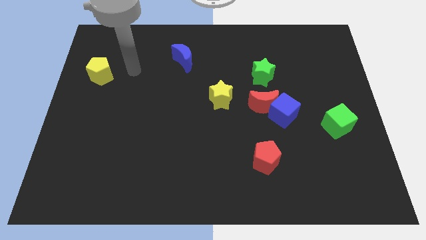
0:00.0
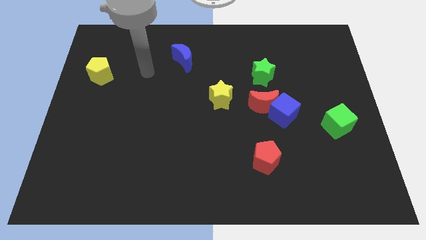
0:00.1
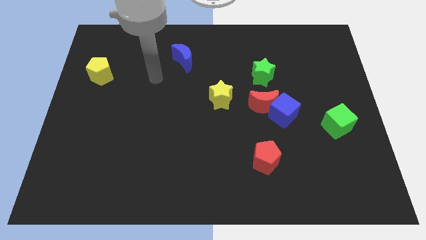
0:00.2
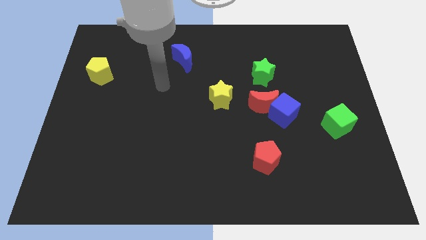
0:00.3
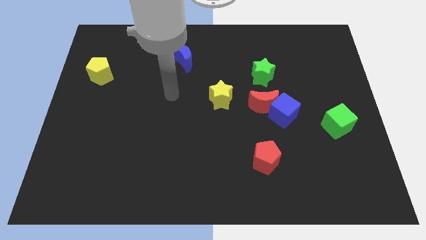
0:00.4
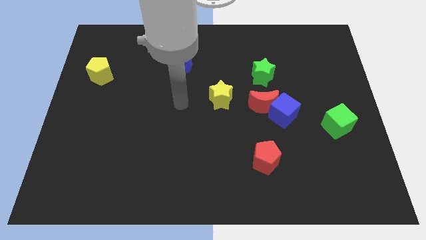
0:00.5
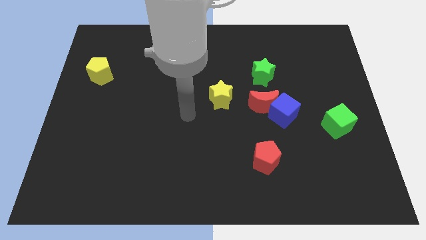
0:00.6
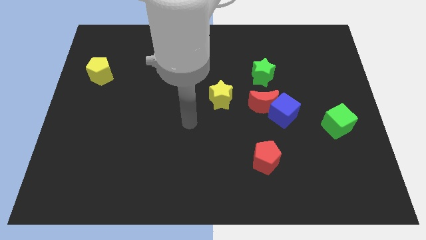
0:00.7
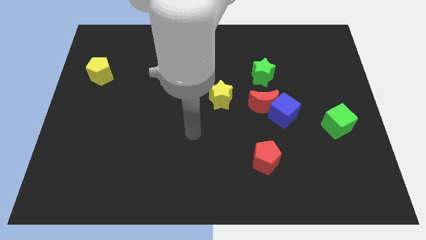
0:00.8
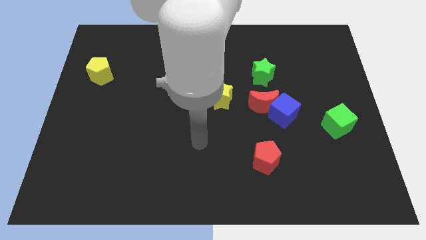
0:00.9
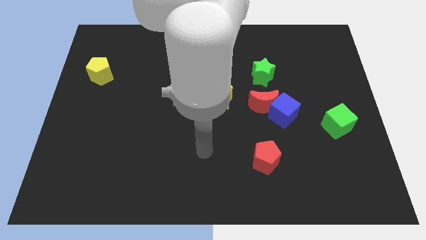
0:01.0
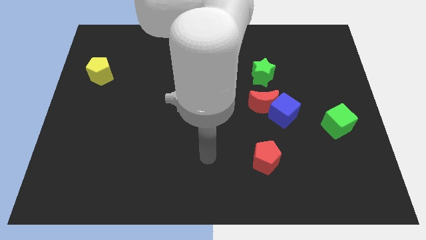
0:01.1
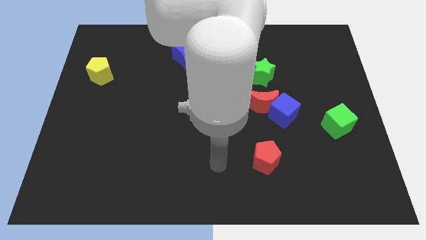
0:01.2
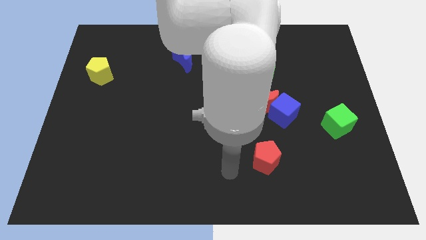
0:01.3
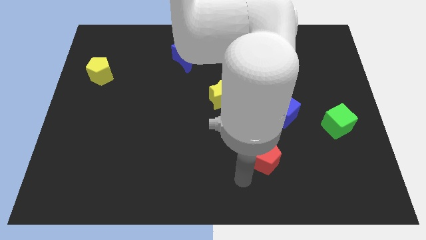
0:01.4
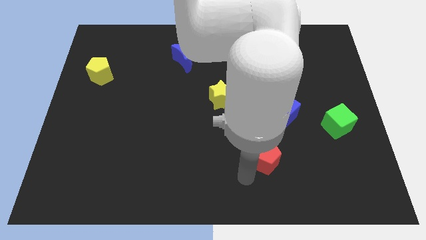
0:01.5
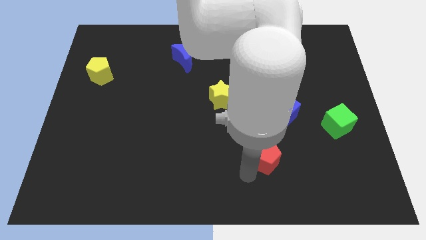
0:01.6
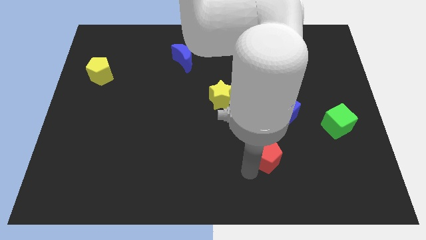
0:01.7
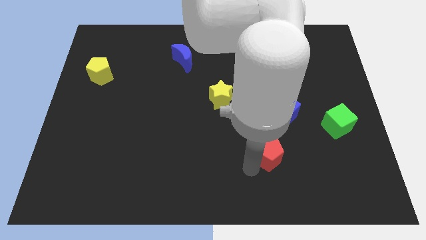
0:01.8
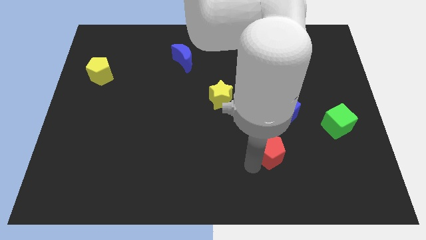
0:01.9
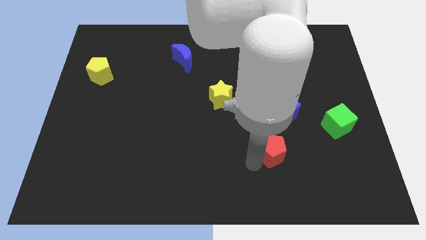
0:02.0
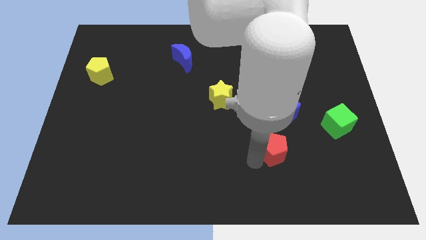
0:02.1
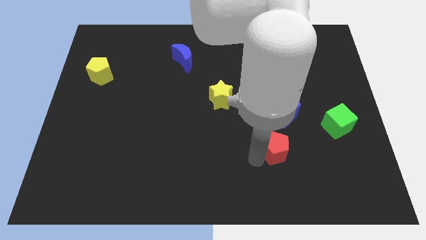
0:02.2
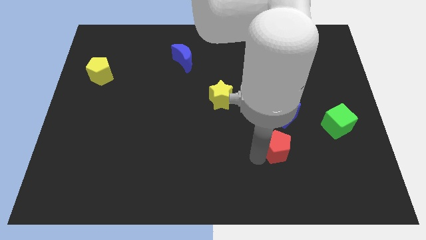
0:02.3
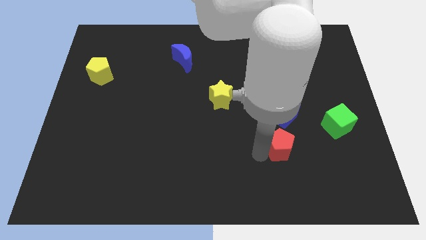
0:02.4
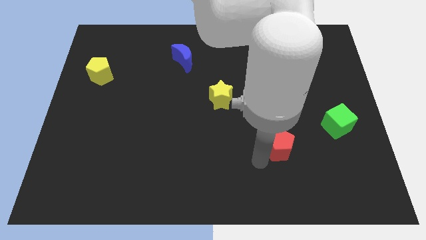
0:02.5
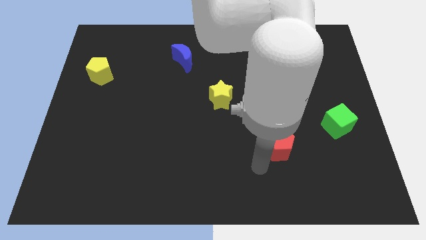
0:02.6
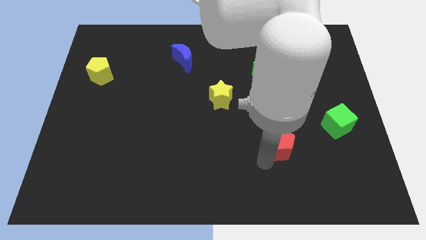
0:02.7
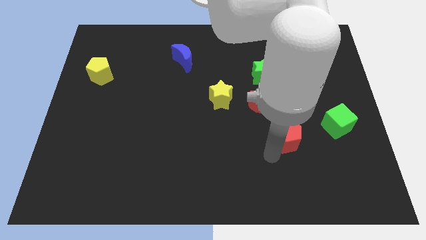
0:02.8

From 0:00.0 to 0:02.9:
push the red pentagon upwards and right diagonally a little

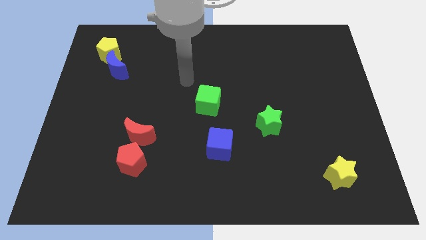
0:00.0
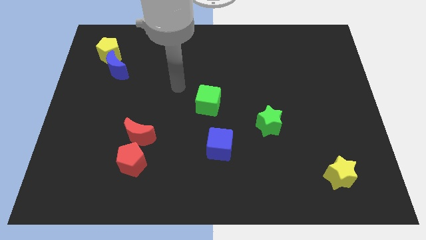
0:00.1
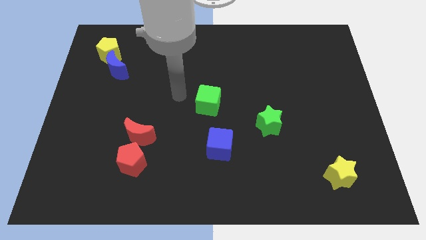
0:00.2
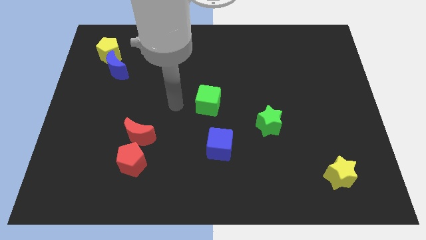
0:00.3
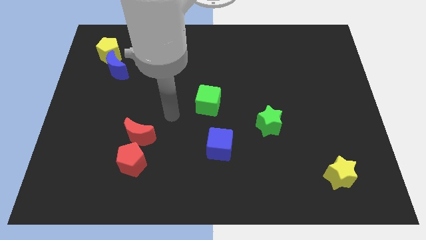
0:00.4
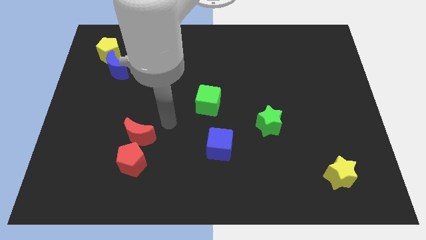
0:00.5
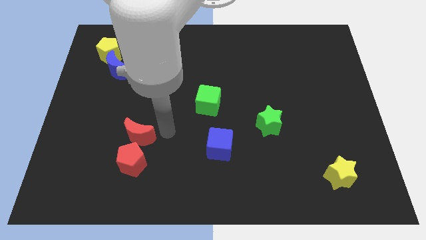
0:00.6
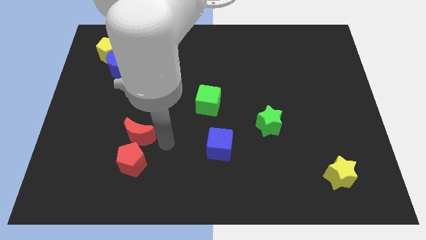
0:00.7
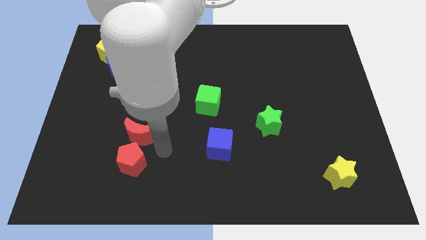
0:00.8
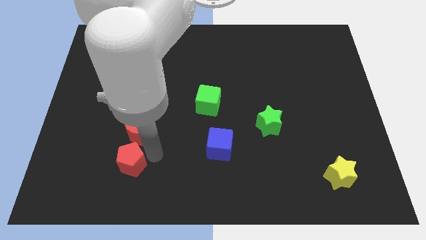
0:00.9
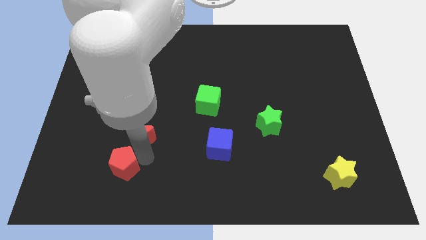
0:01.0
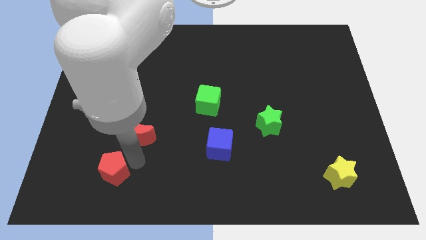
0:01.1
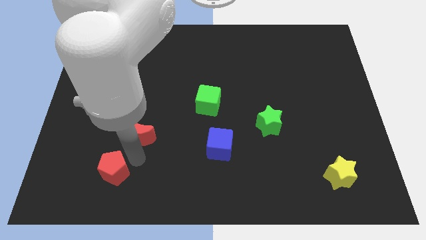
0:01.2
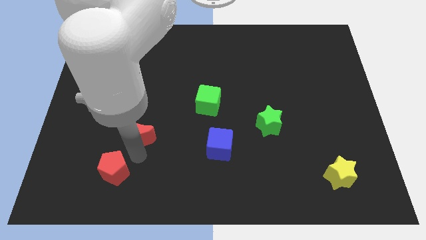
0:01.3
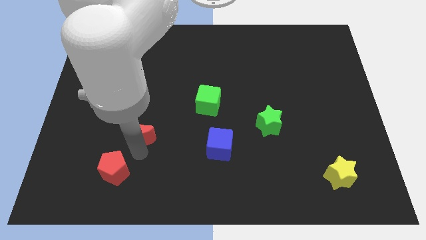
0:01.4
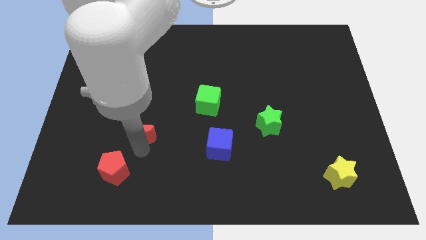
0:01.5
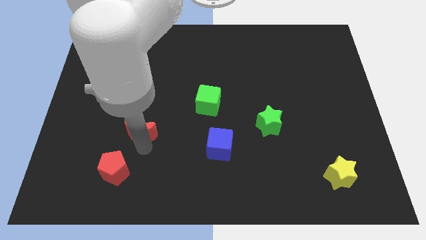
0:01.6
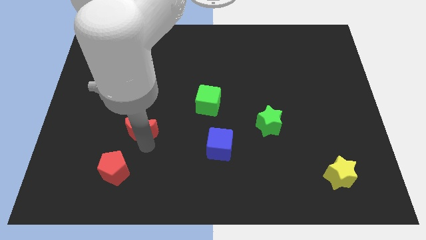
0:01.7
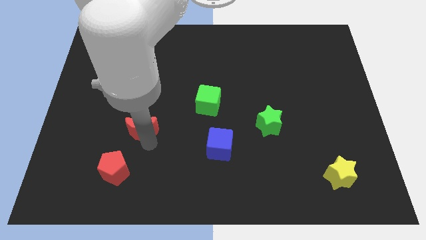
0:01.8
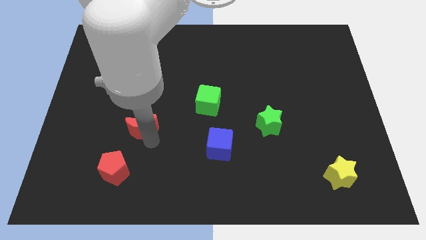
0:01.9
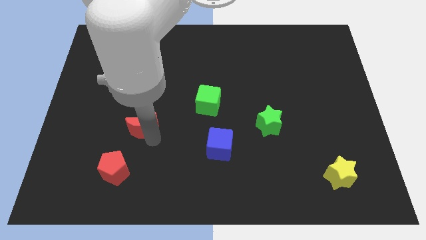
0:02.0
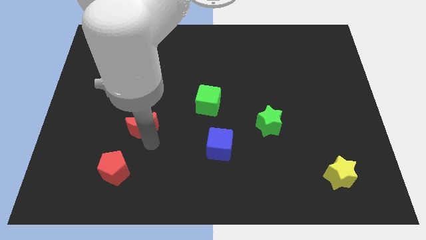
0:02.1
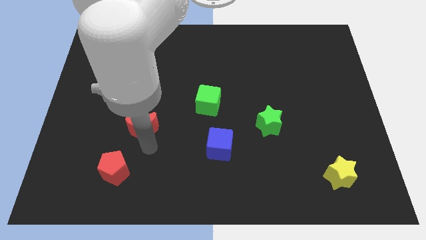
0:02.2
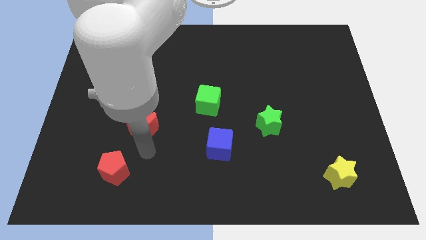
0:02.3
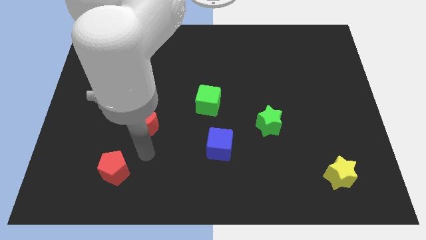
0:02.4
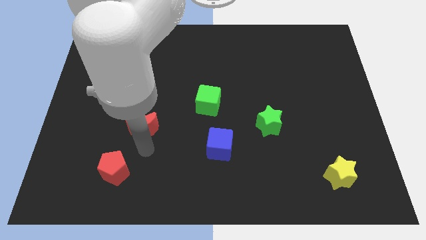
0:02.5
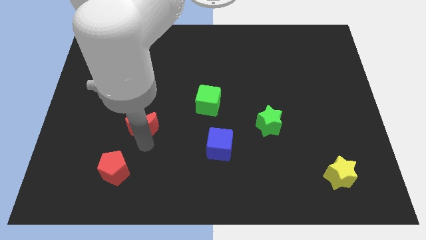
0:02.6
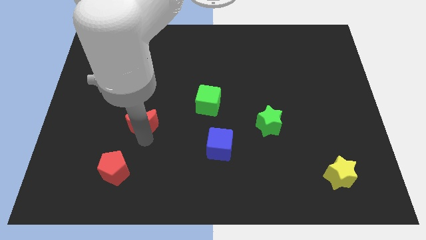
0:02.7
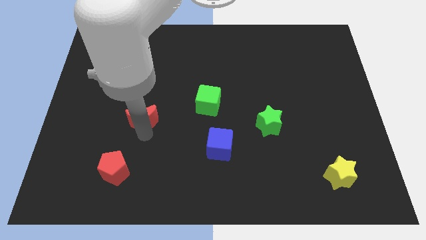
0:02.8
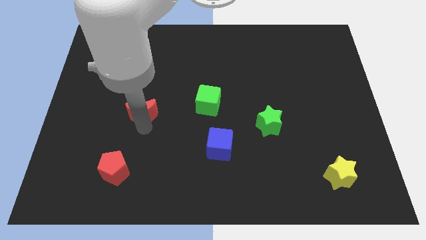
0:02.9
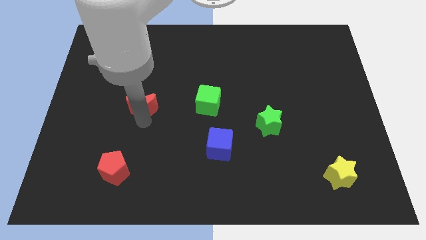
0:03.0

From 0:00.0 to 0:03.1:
push the red moon upwards slightly

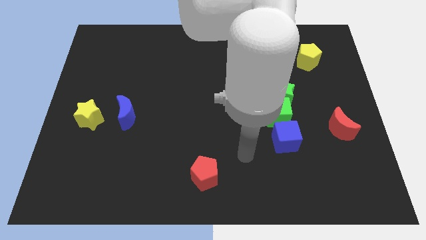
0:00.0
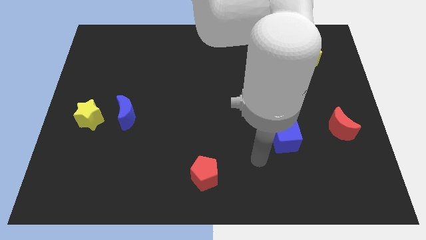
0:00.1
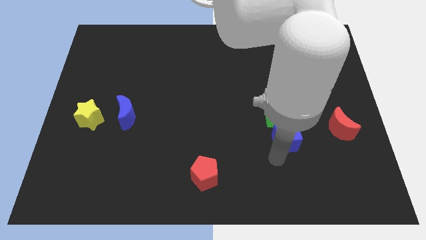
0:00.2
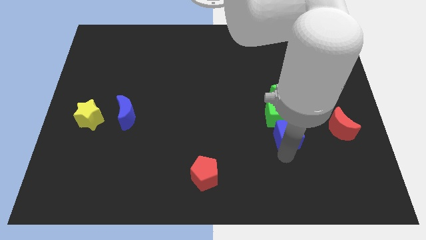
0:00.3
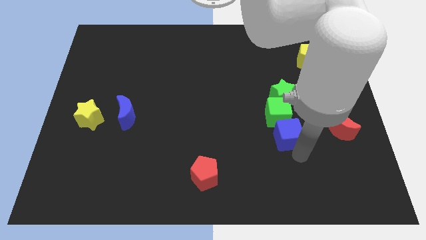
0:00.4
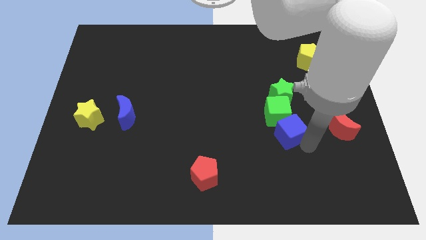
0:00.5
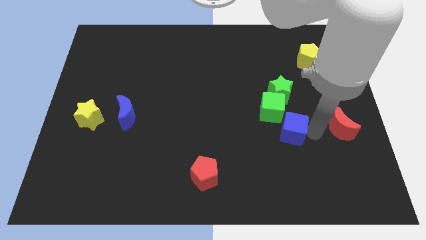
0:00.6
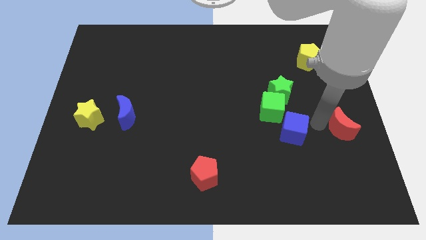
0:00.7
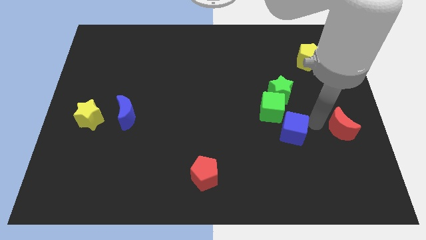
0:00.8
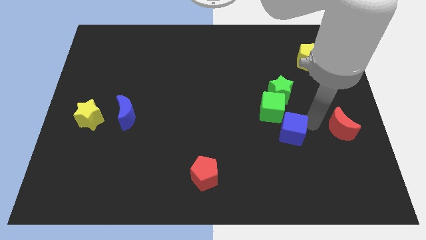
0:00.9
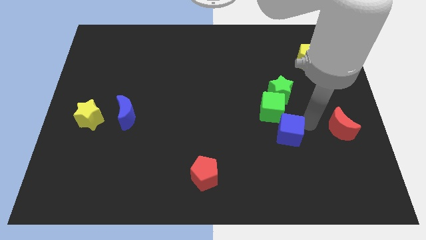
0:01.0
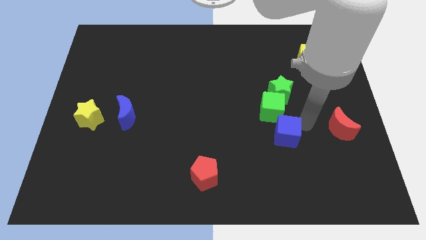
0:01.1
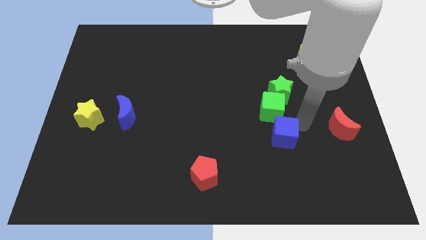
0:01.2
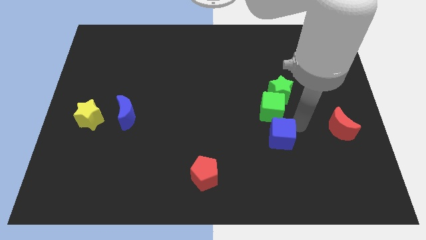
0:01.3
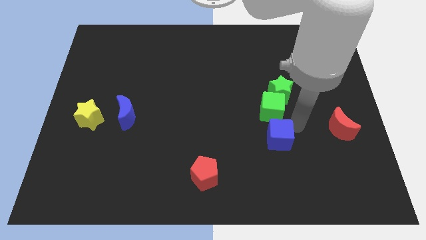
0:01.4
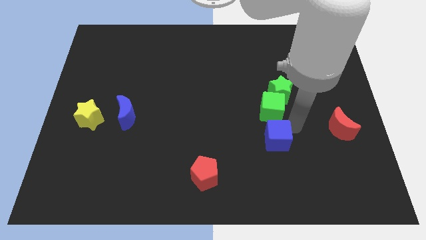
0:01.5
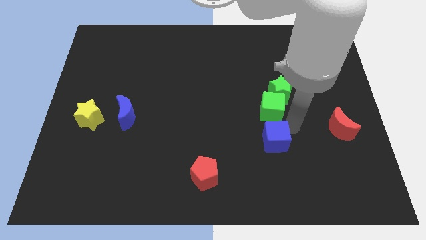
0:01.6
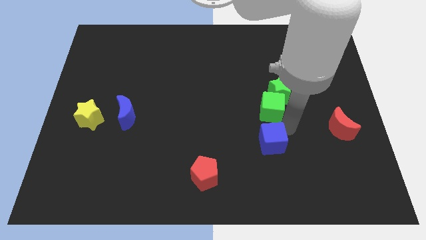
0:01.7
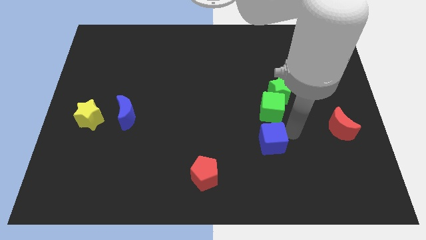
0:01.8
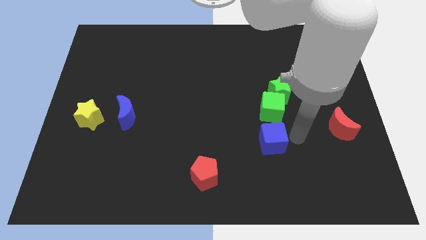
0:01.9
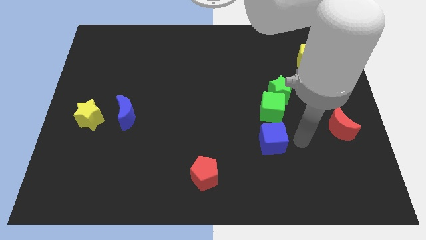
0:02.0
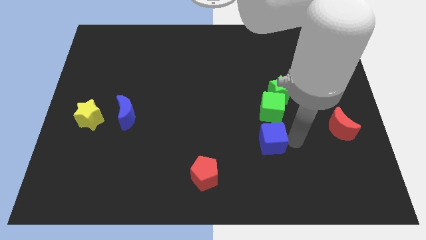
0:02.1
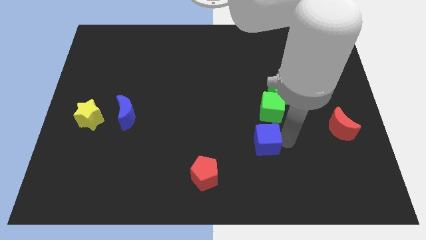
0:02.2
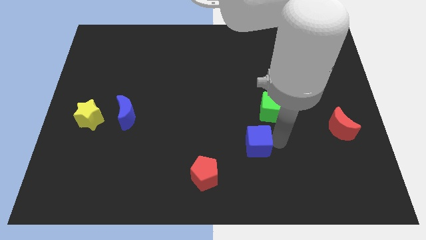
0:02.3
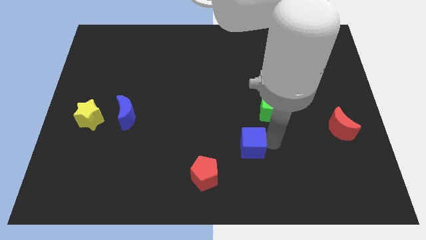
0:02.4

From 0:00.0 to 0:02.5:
slightly move the blue cube to the left
